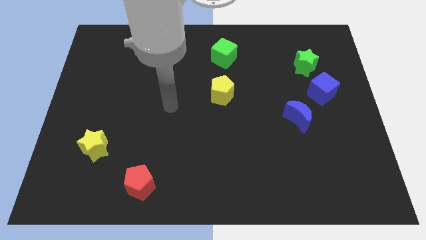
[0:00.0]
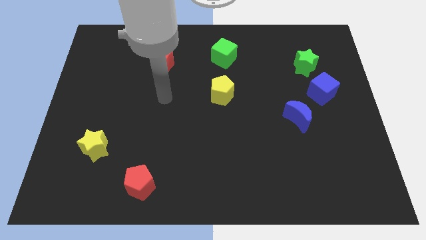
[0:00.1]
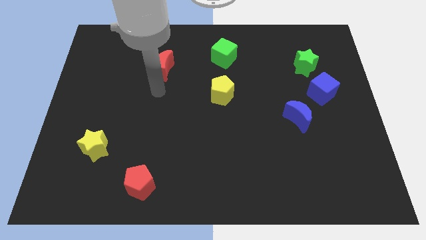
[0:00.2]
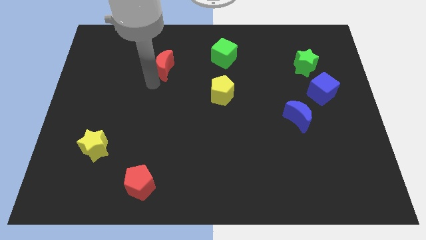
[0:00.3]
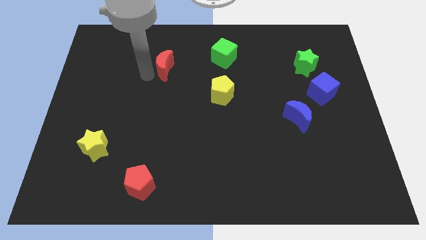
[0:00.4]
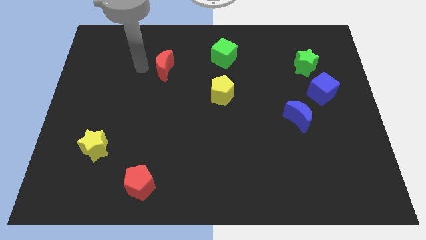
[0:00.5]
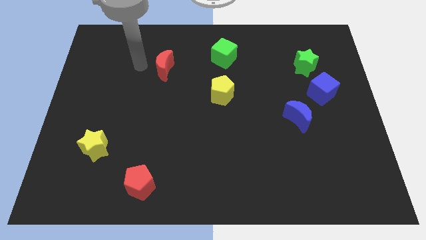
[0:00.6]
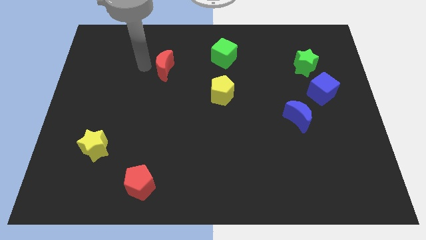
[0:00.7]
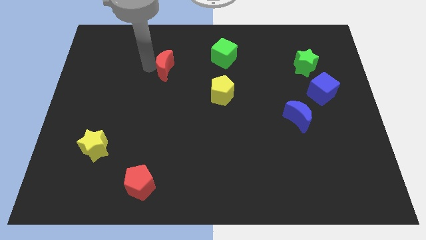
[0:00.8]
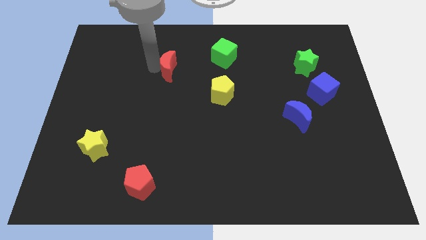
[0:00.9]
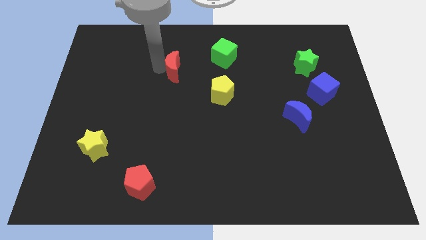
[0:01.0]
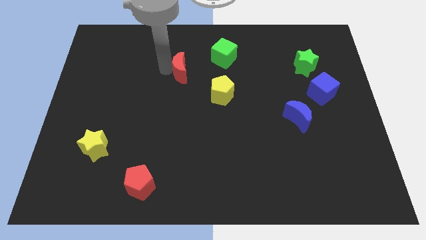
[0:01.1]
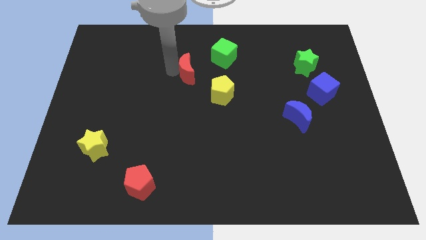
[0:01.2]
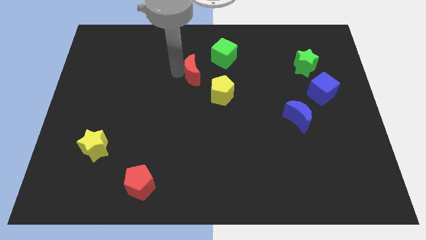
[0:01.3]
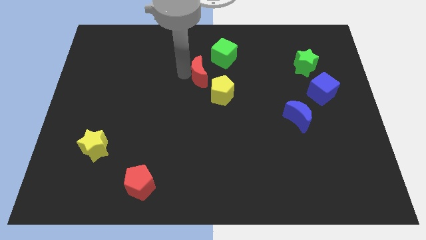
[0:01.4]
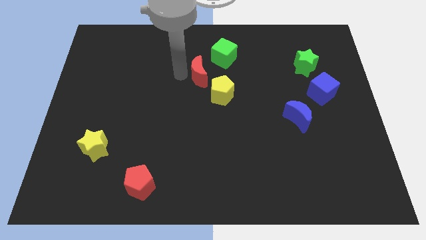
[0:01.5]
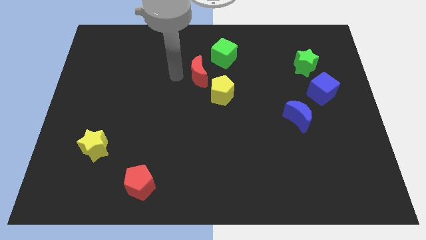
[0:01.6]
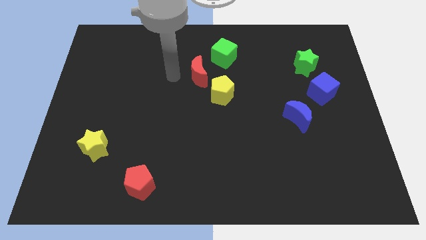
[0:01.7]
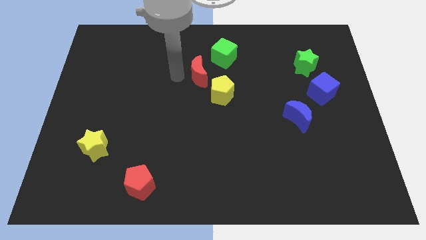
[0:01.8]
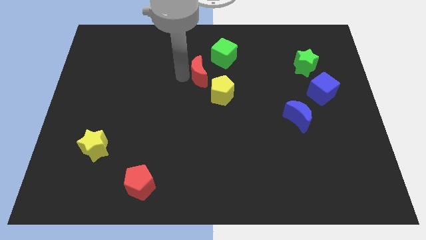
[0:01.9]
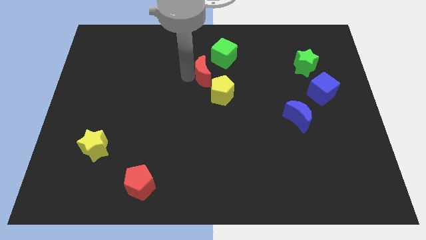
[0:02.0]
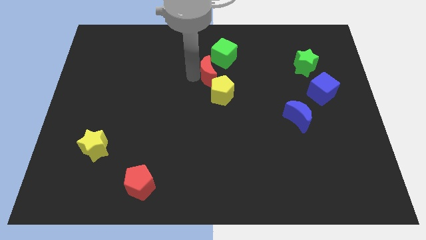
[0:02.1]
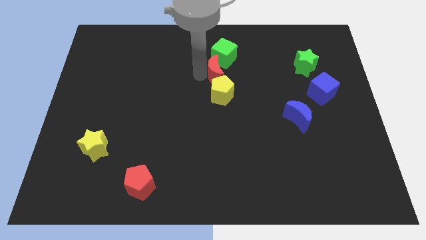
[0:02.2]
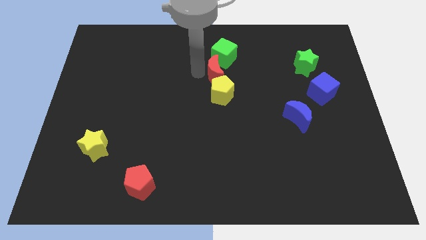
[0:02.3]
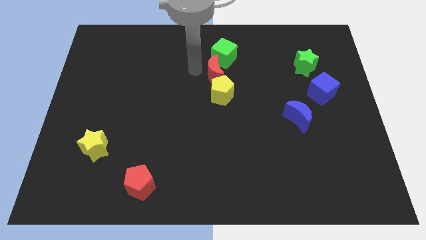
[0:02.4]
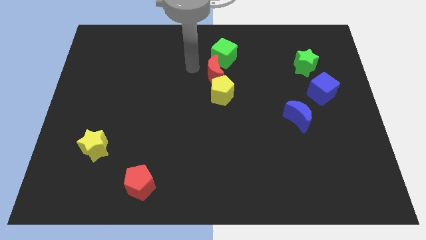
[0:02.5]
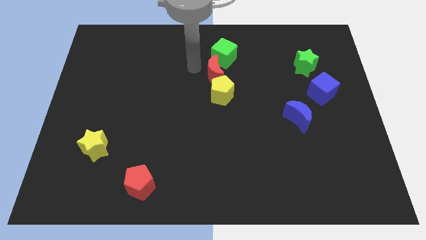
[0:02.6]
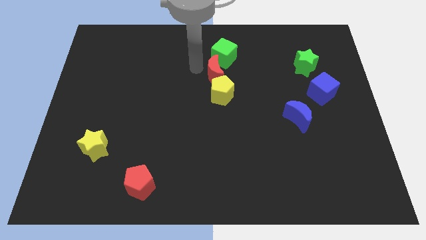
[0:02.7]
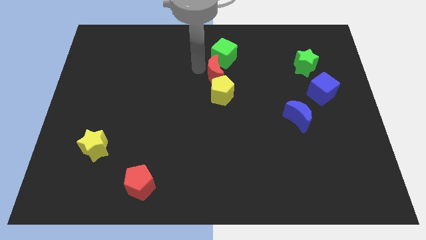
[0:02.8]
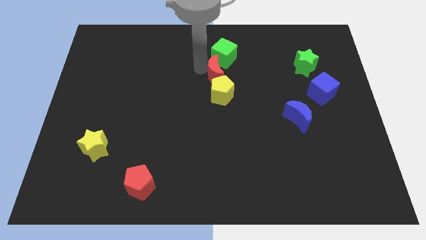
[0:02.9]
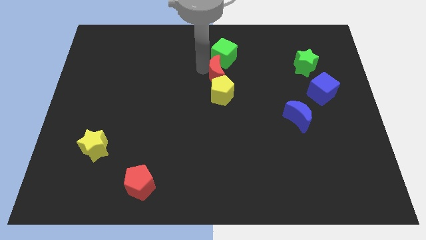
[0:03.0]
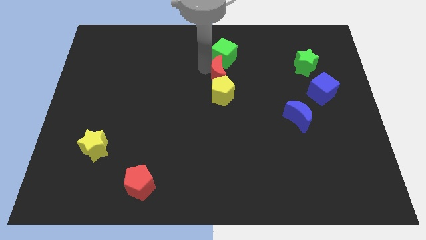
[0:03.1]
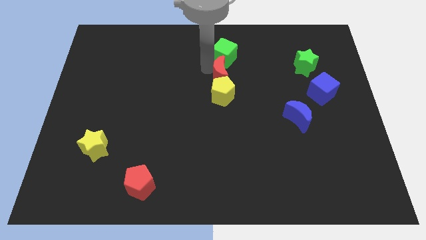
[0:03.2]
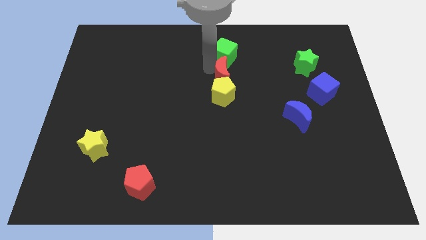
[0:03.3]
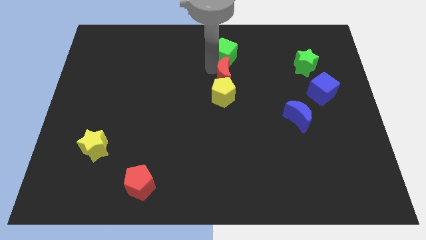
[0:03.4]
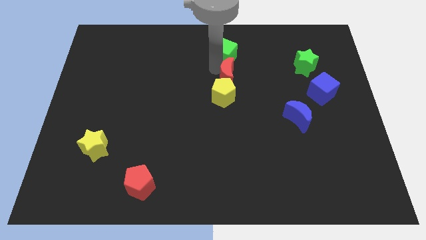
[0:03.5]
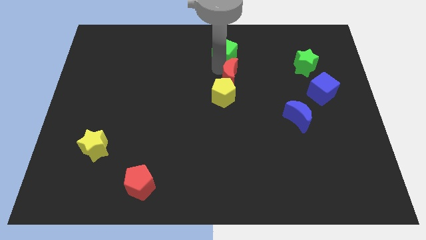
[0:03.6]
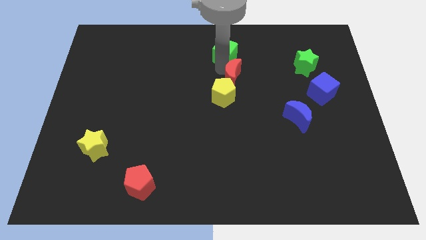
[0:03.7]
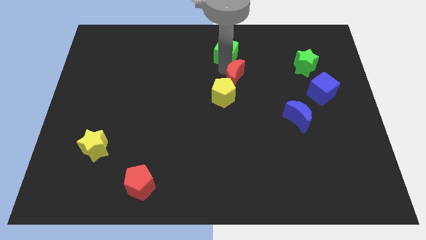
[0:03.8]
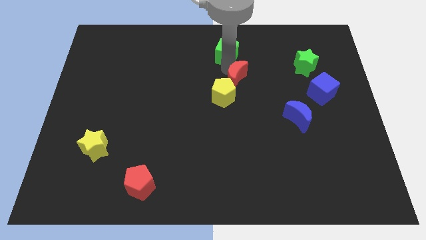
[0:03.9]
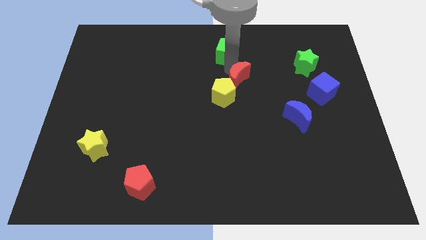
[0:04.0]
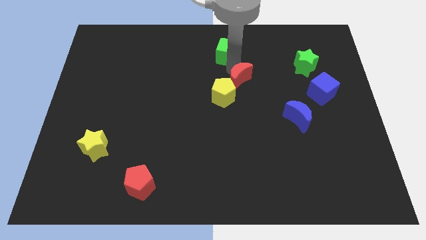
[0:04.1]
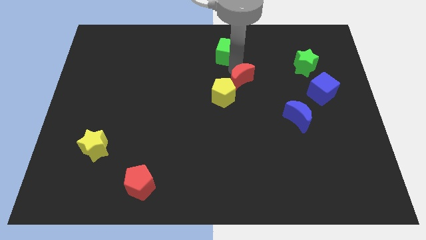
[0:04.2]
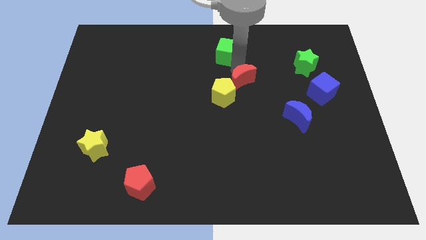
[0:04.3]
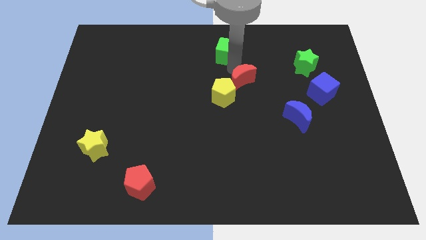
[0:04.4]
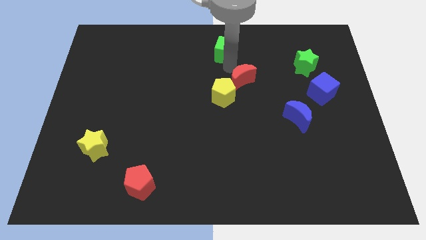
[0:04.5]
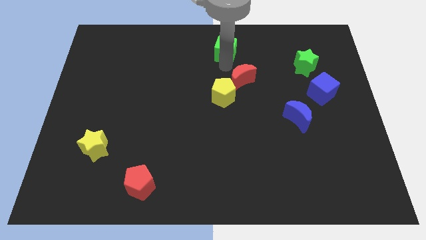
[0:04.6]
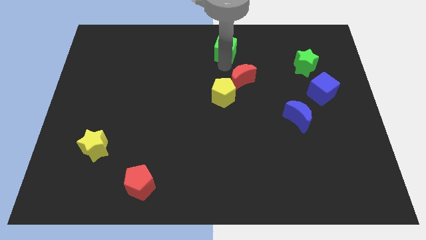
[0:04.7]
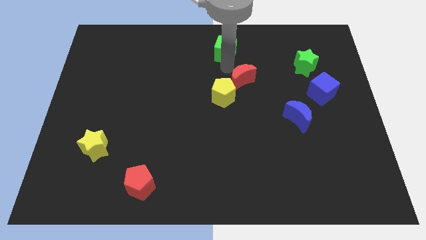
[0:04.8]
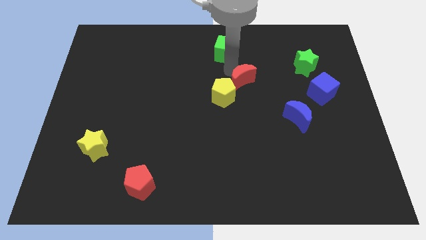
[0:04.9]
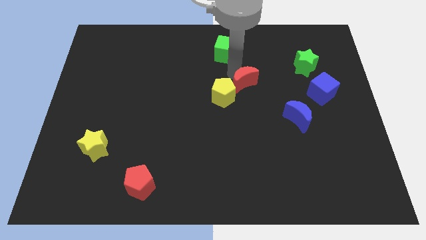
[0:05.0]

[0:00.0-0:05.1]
push the red moon just right of the yellow pentagon

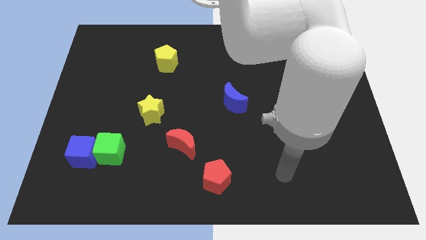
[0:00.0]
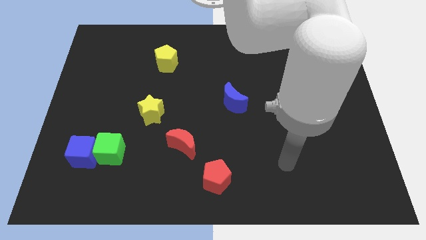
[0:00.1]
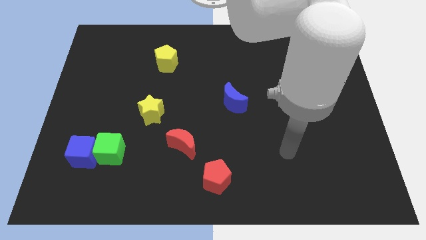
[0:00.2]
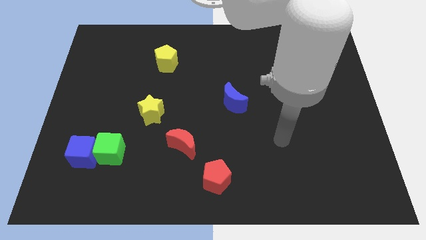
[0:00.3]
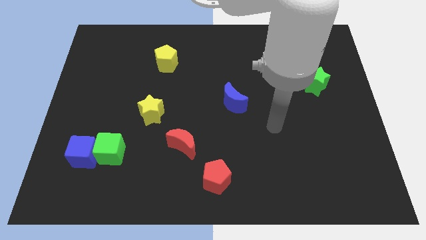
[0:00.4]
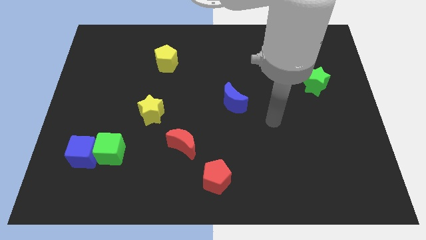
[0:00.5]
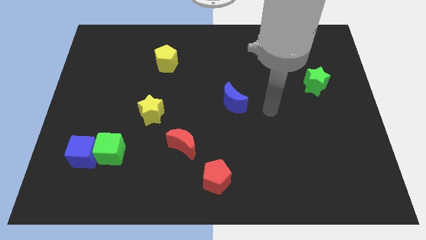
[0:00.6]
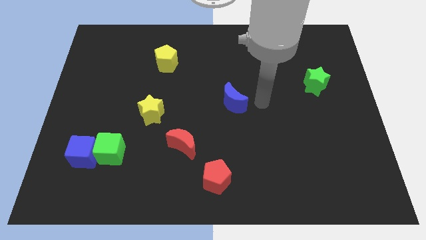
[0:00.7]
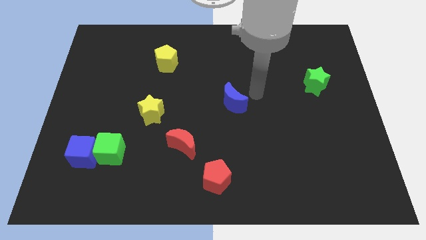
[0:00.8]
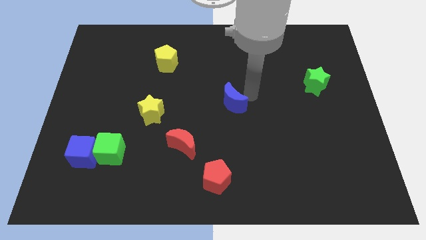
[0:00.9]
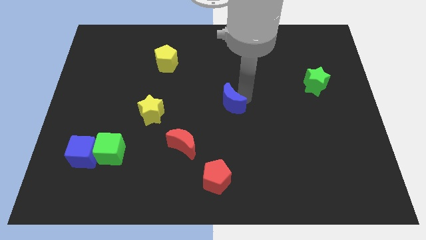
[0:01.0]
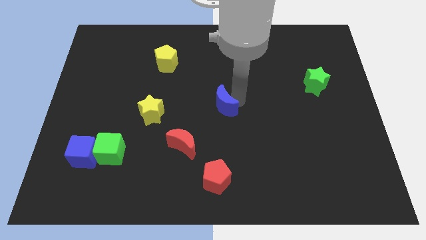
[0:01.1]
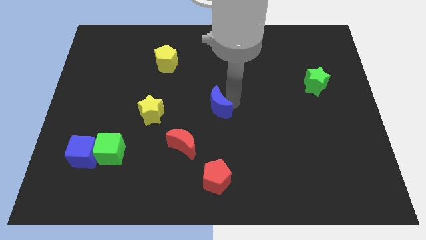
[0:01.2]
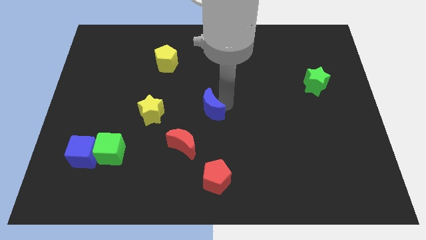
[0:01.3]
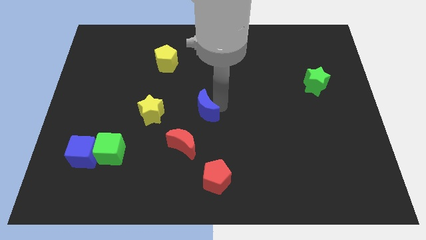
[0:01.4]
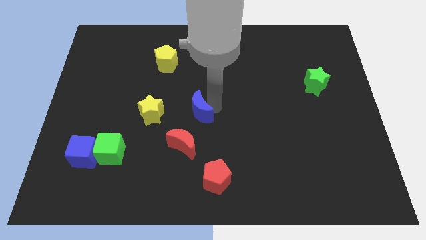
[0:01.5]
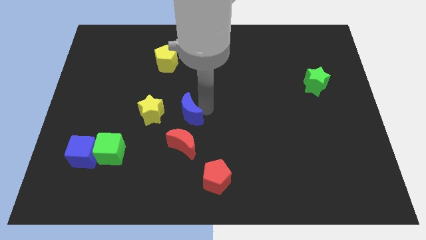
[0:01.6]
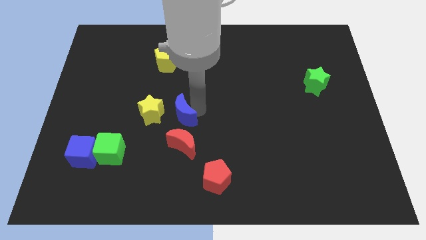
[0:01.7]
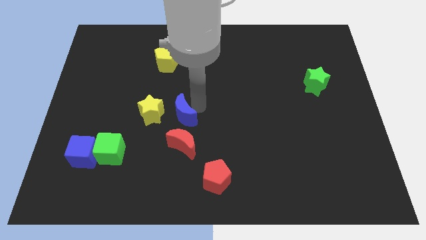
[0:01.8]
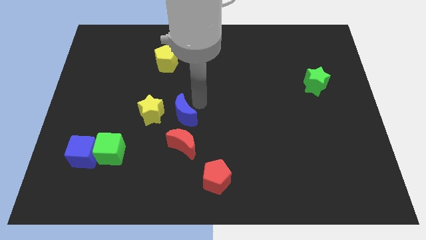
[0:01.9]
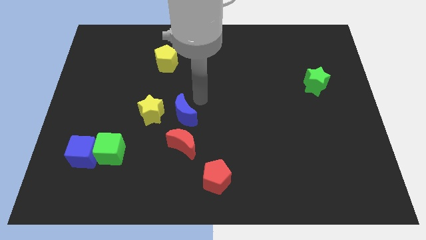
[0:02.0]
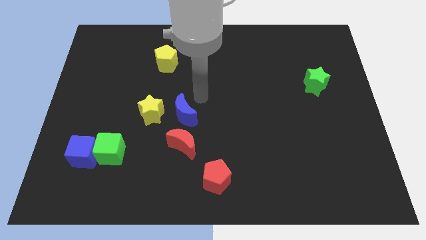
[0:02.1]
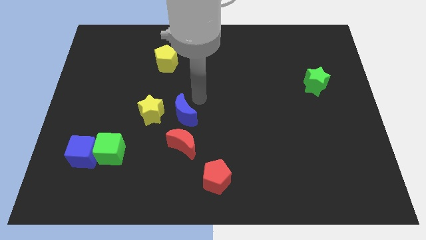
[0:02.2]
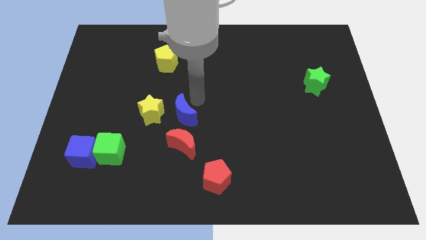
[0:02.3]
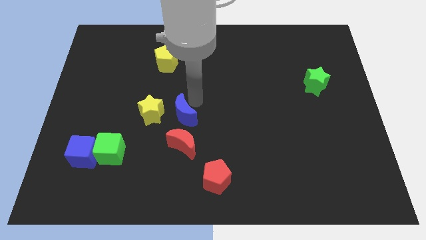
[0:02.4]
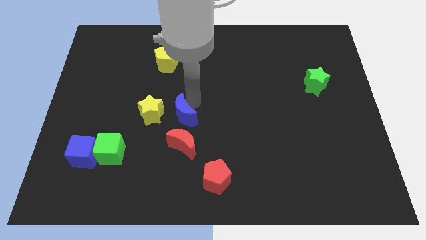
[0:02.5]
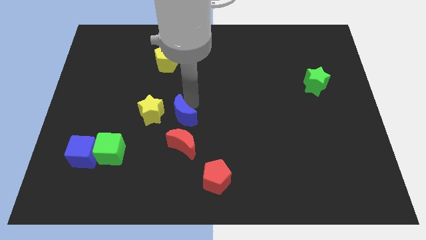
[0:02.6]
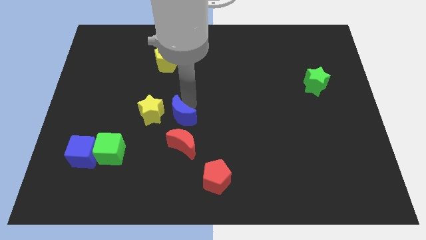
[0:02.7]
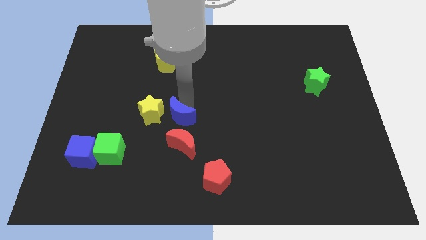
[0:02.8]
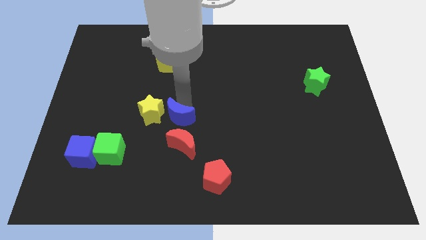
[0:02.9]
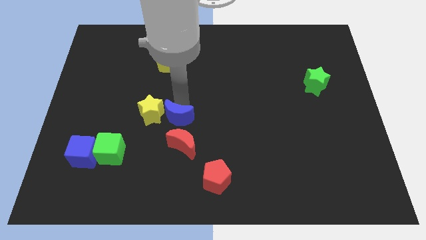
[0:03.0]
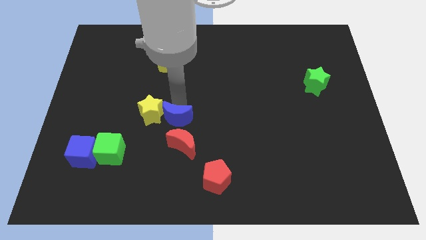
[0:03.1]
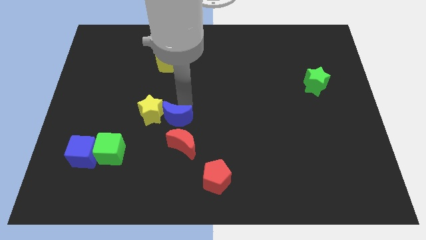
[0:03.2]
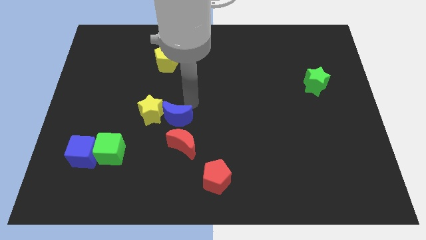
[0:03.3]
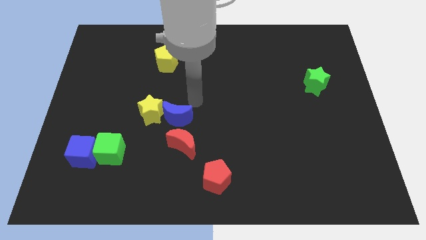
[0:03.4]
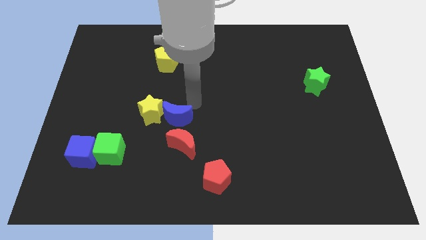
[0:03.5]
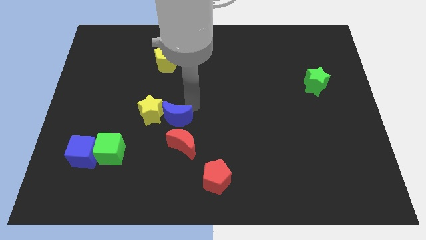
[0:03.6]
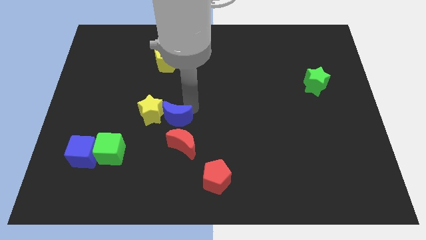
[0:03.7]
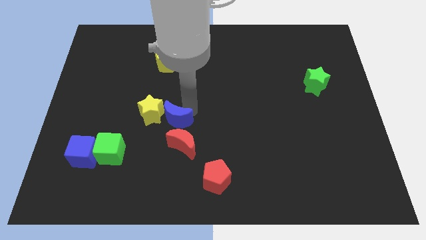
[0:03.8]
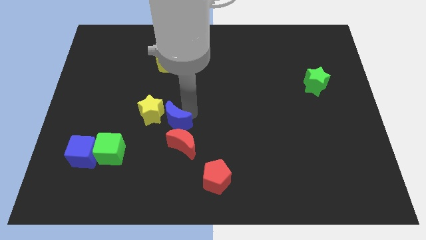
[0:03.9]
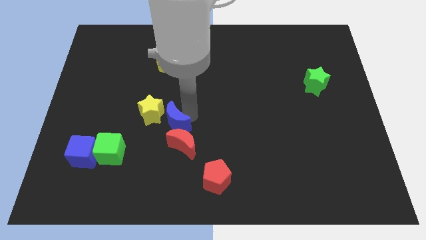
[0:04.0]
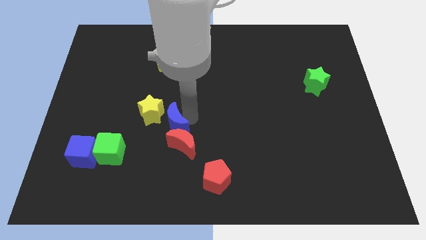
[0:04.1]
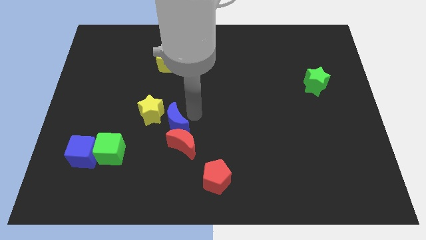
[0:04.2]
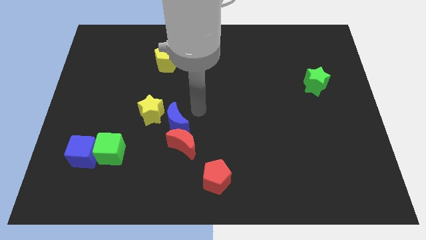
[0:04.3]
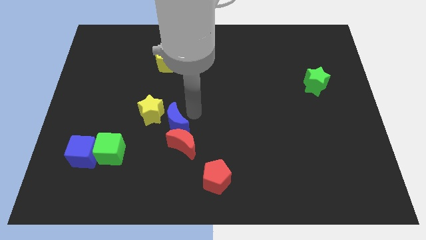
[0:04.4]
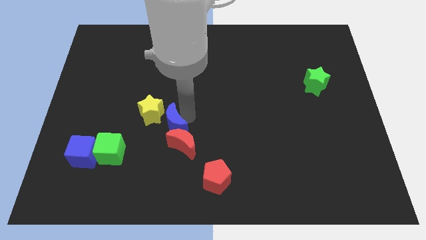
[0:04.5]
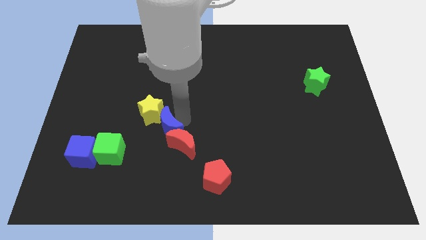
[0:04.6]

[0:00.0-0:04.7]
slide the blue moon to the left of the red moon
